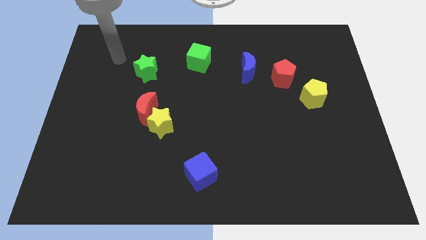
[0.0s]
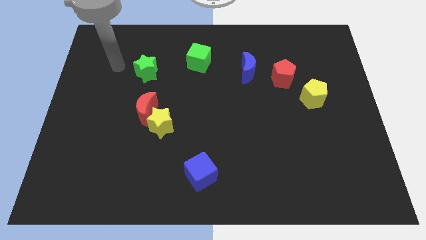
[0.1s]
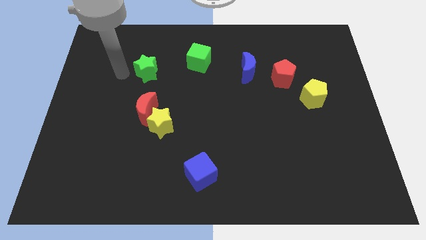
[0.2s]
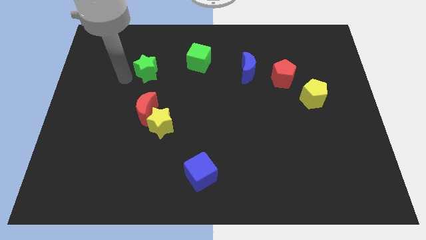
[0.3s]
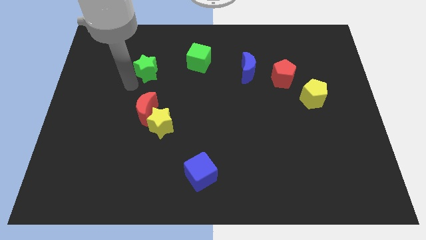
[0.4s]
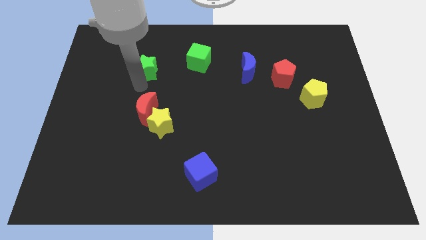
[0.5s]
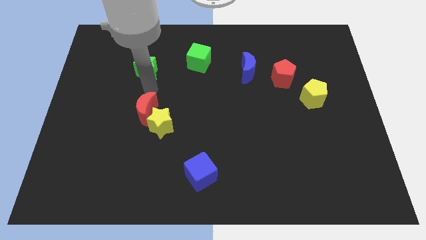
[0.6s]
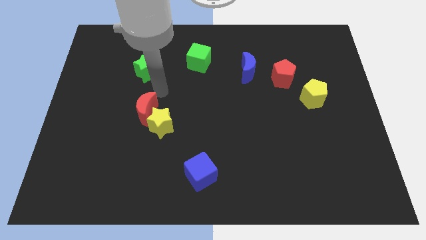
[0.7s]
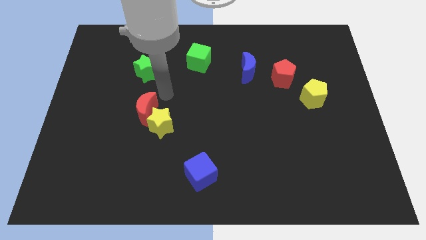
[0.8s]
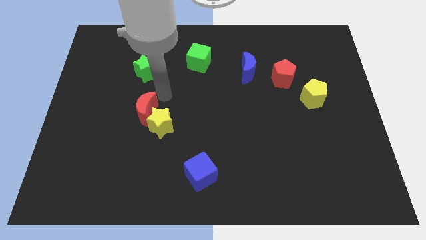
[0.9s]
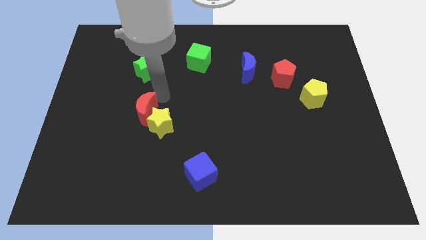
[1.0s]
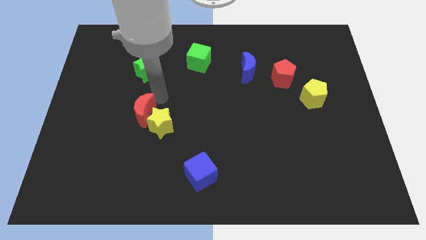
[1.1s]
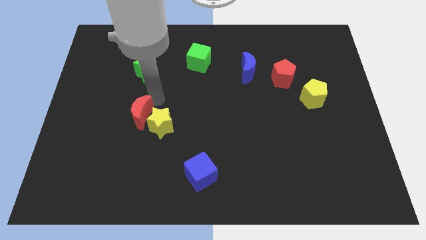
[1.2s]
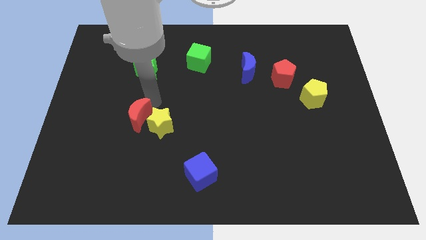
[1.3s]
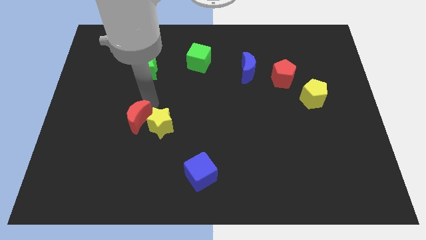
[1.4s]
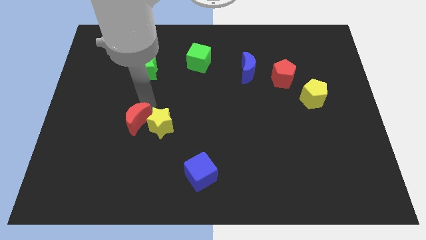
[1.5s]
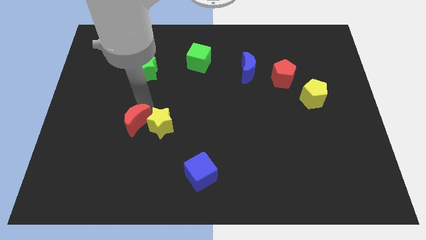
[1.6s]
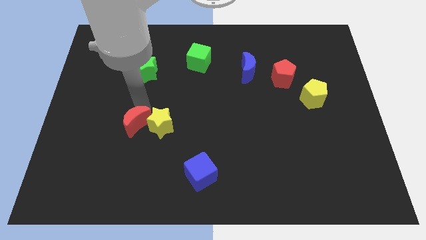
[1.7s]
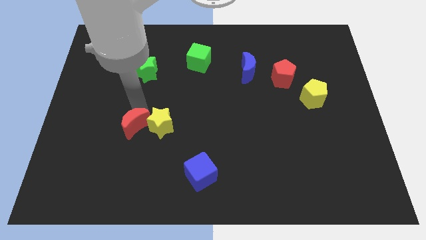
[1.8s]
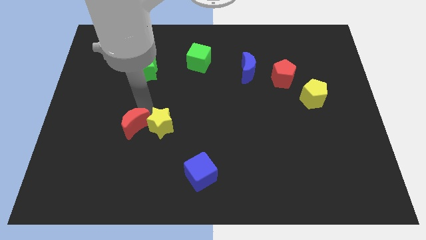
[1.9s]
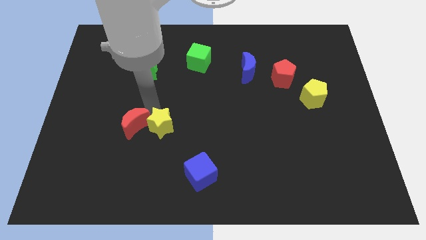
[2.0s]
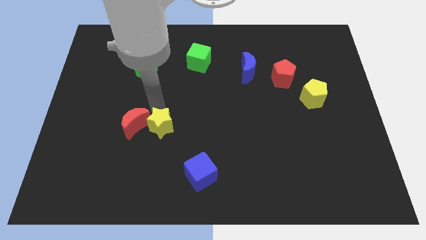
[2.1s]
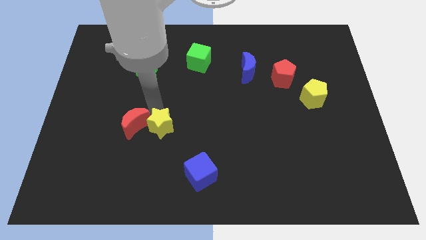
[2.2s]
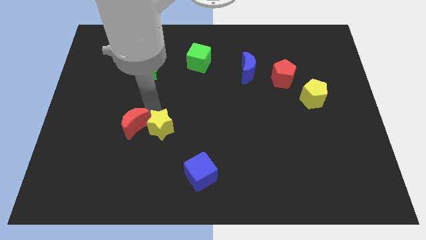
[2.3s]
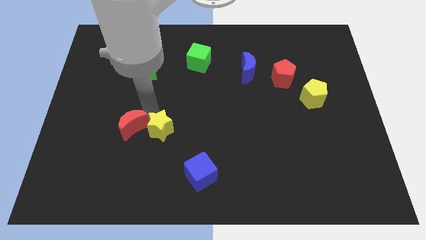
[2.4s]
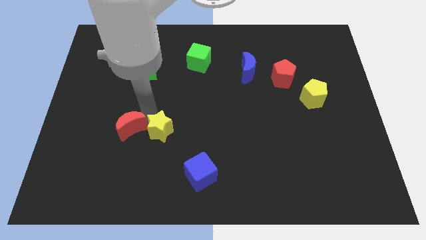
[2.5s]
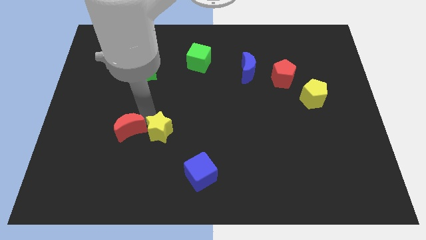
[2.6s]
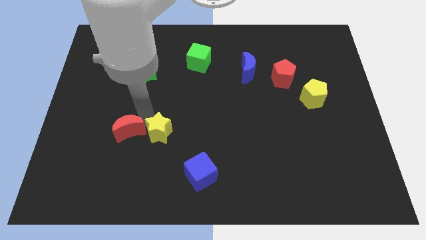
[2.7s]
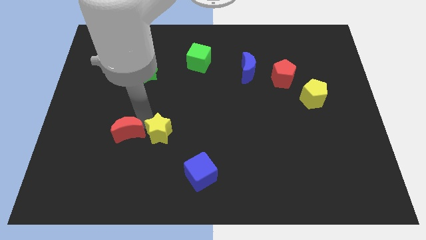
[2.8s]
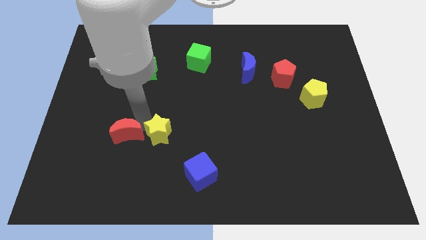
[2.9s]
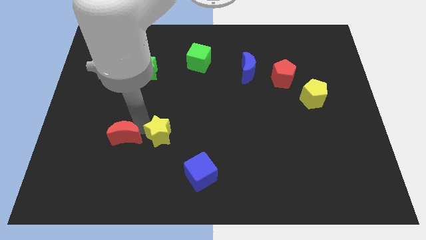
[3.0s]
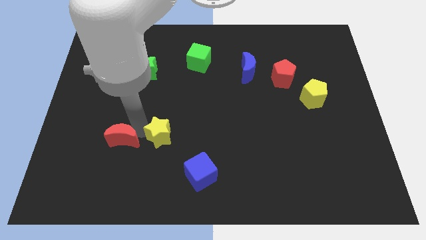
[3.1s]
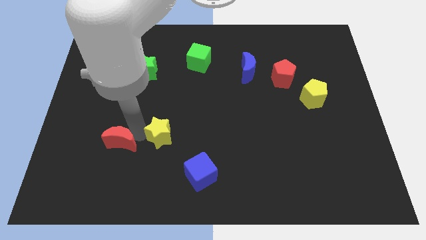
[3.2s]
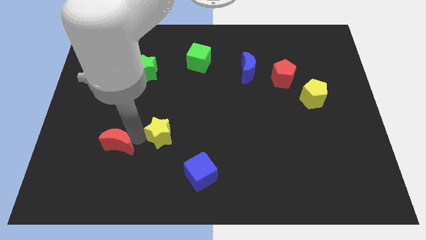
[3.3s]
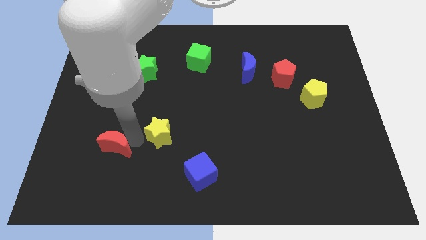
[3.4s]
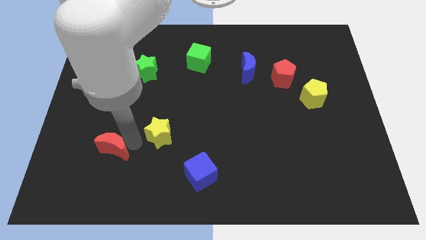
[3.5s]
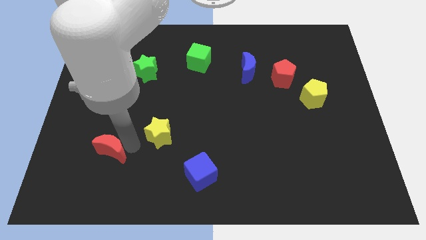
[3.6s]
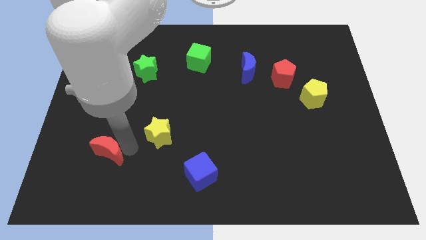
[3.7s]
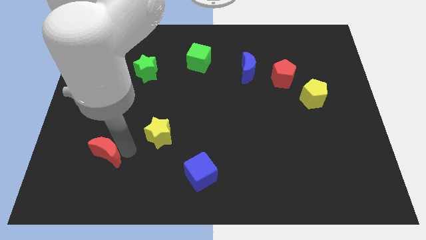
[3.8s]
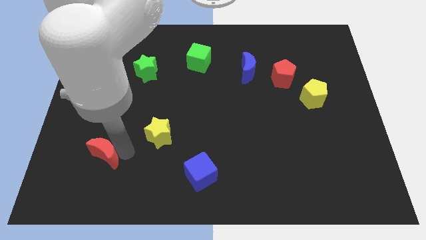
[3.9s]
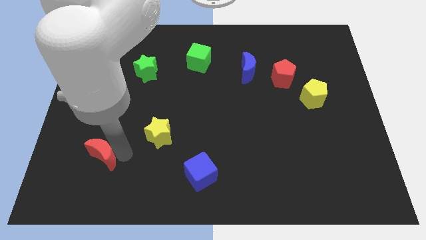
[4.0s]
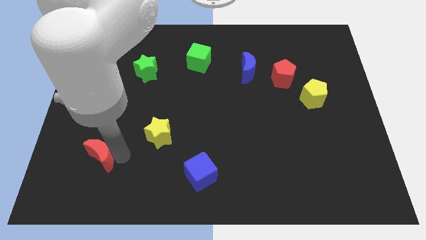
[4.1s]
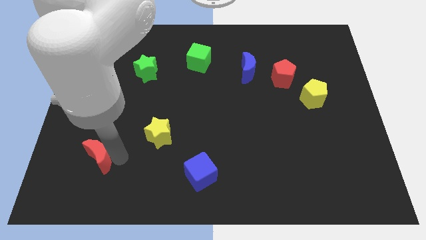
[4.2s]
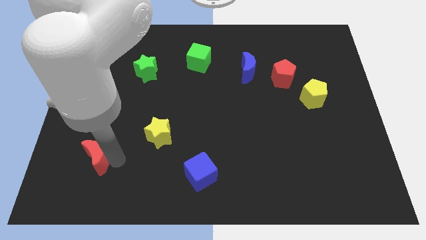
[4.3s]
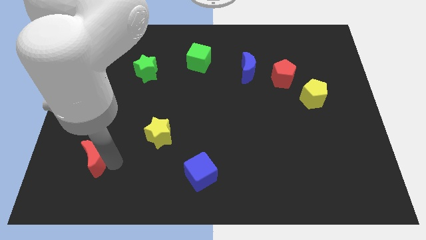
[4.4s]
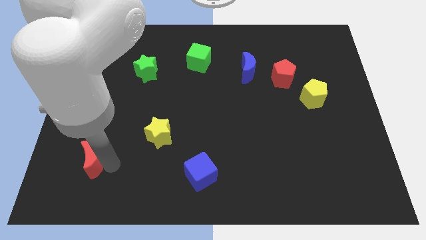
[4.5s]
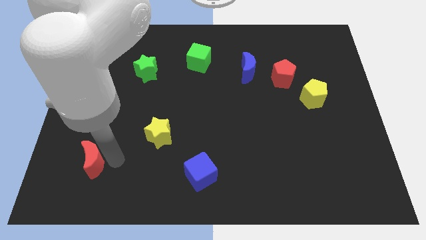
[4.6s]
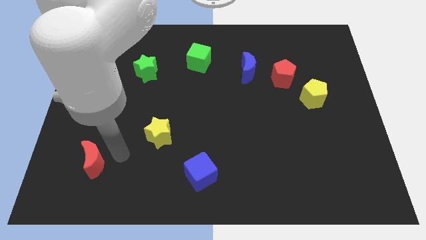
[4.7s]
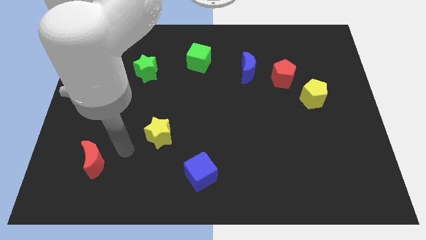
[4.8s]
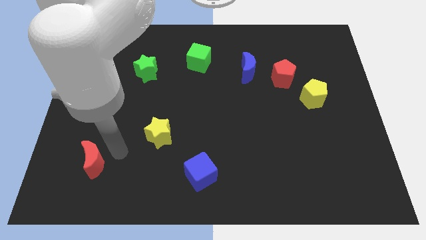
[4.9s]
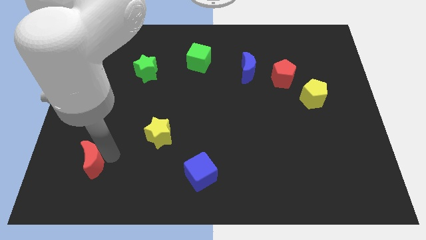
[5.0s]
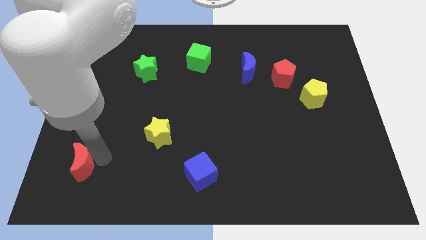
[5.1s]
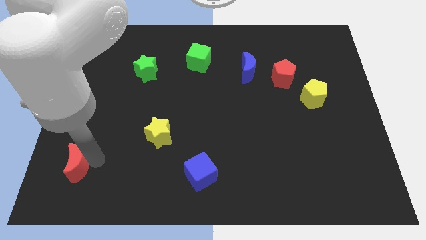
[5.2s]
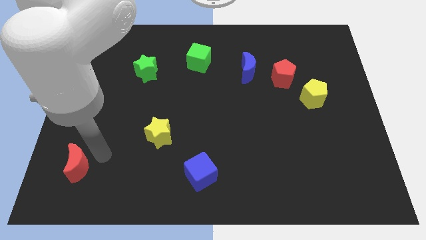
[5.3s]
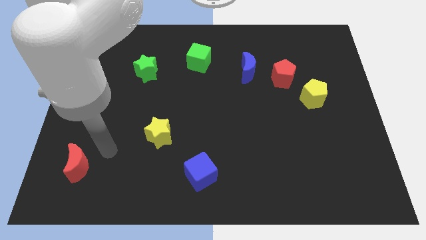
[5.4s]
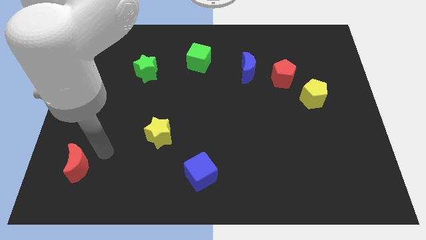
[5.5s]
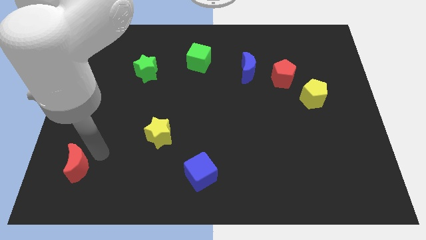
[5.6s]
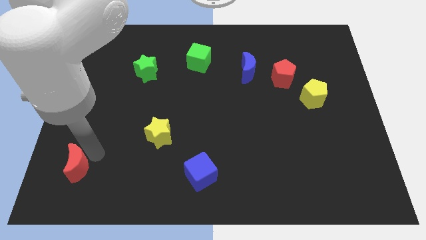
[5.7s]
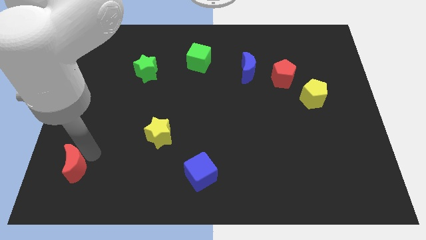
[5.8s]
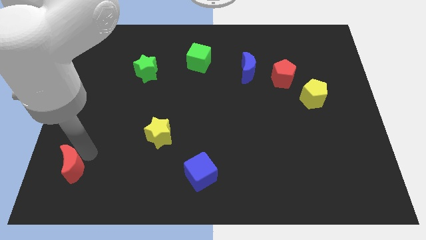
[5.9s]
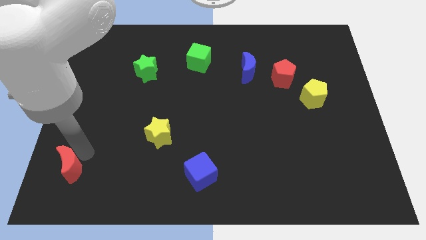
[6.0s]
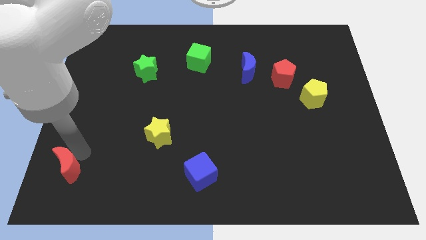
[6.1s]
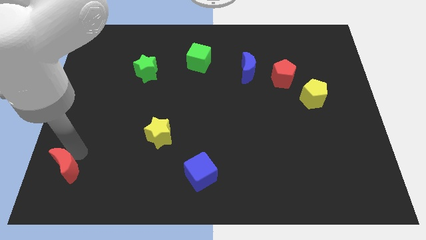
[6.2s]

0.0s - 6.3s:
push the red moon to the lower left corner
